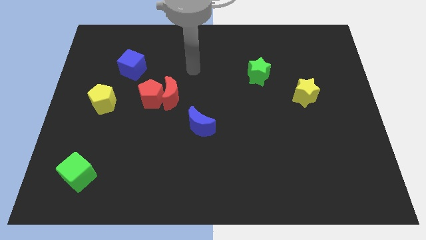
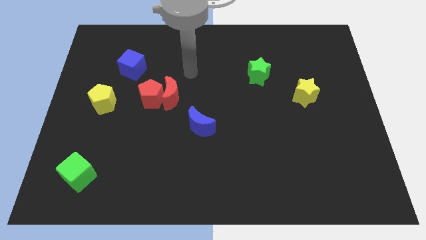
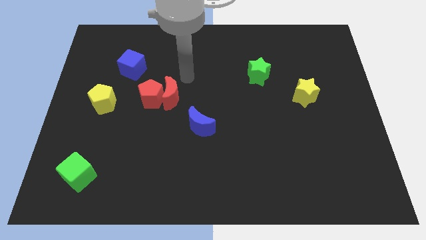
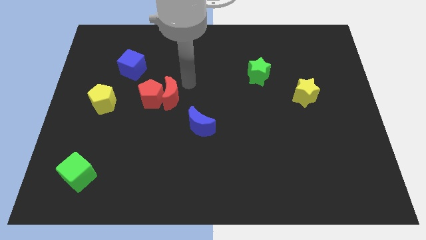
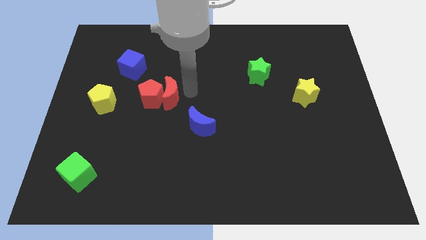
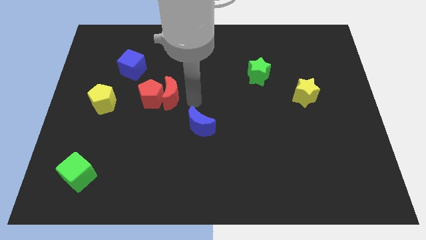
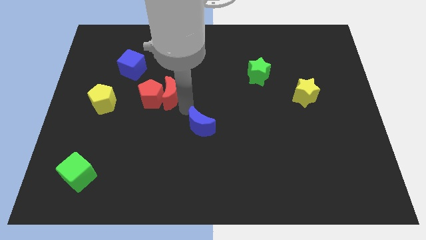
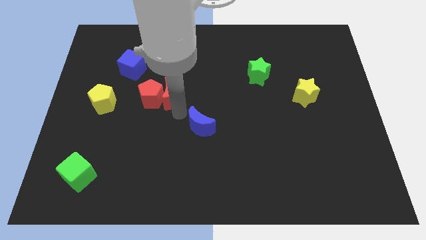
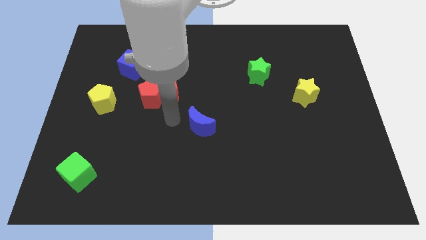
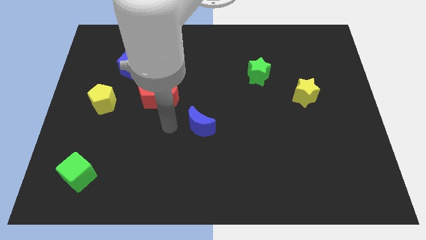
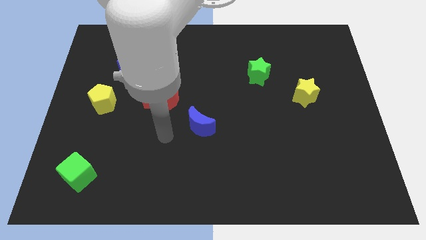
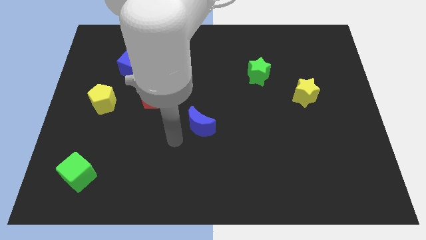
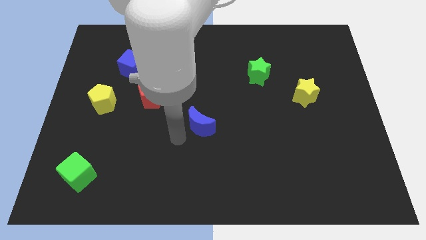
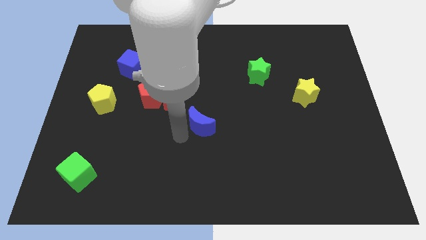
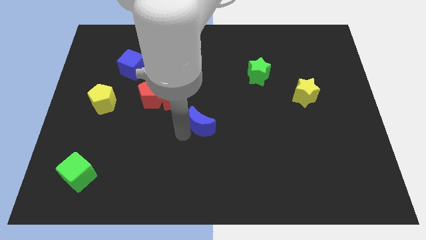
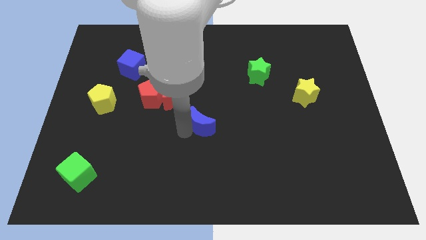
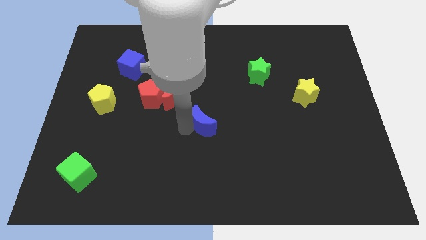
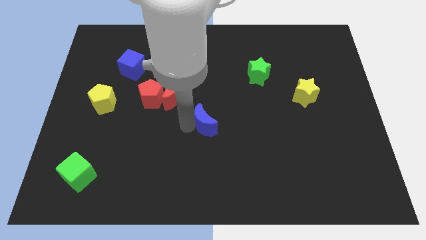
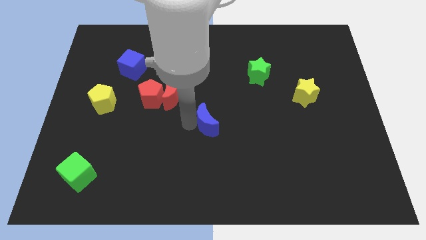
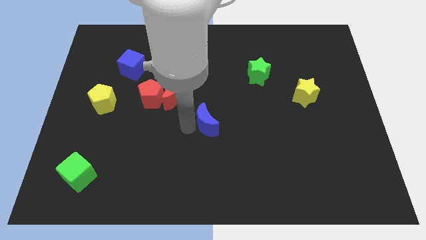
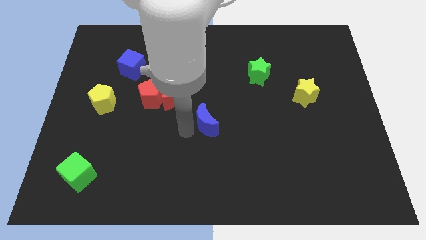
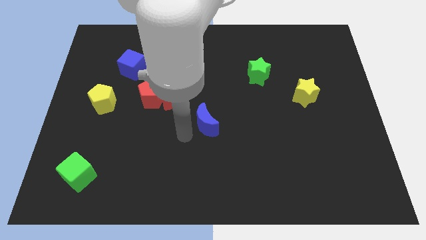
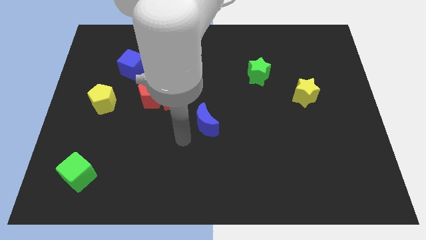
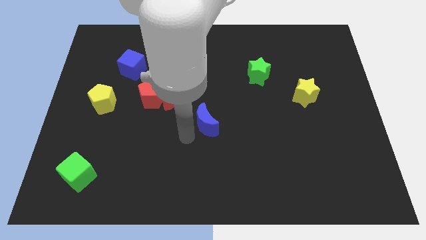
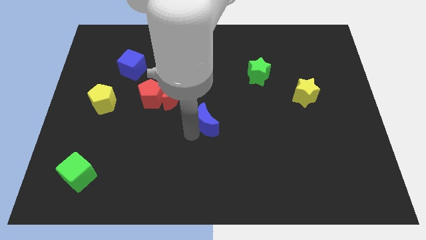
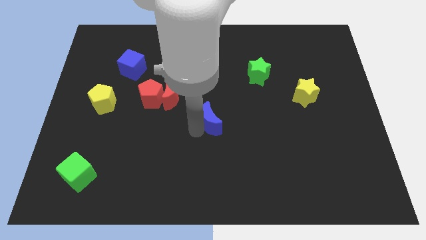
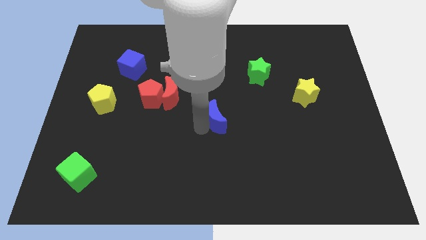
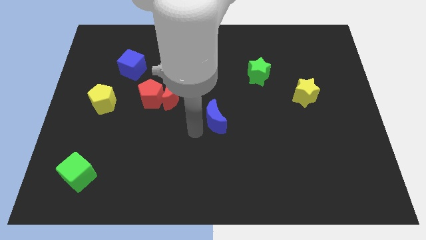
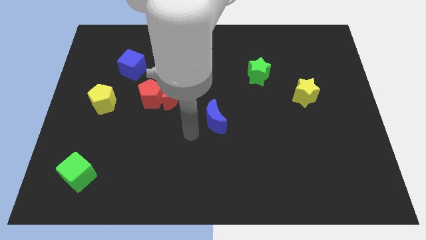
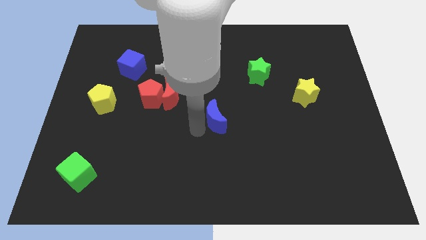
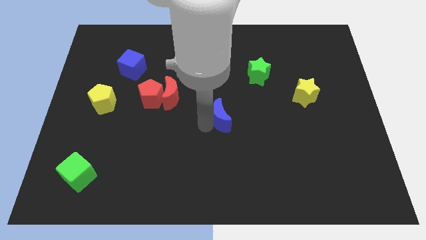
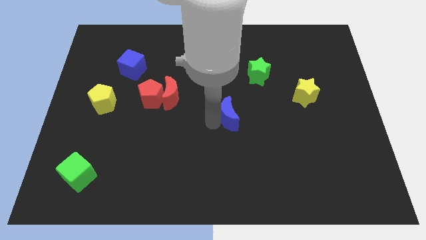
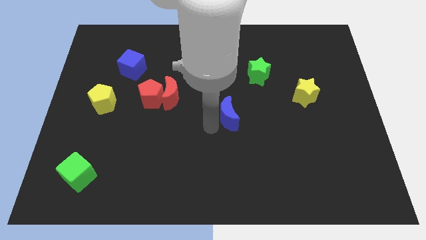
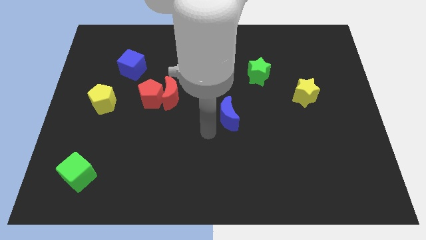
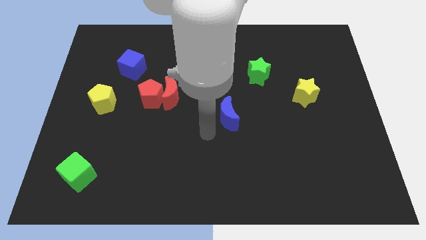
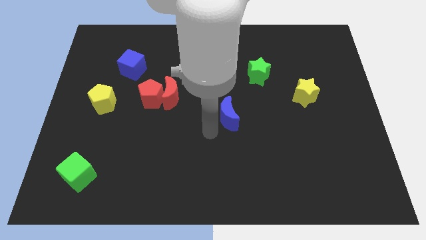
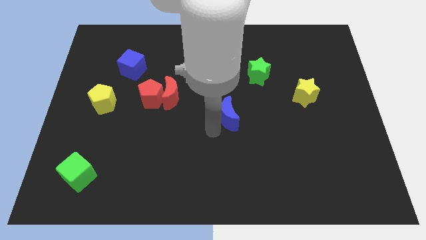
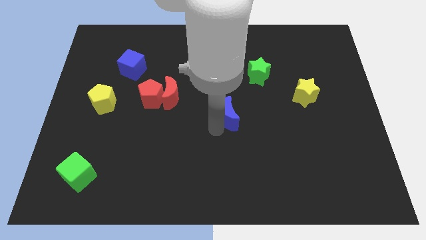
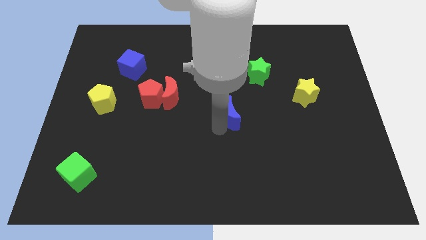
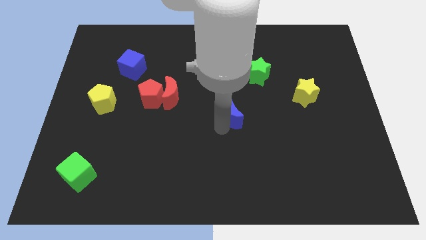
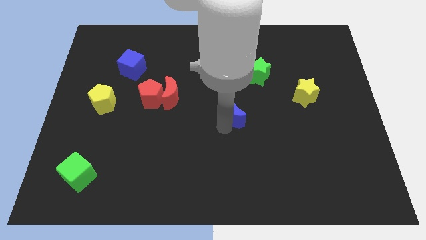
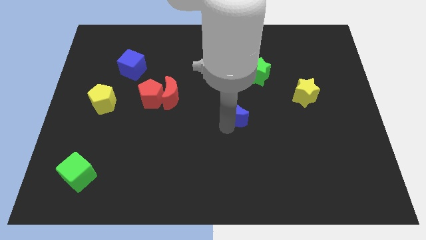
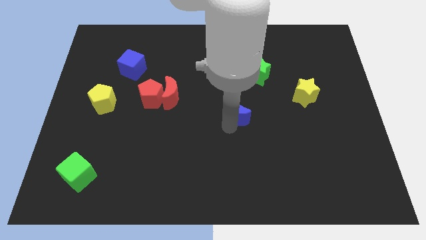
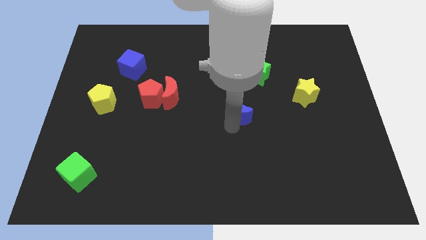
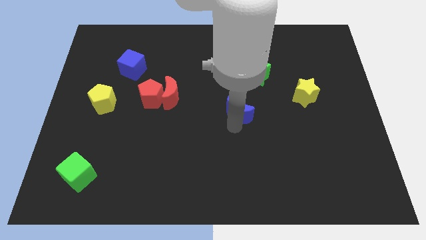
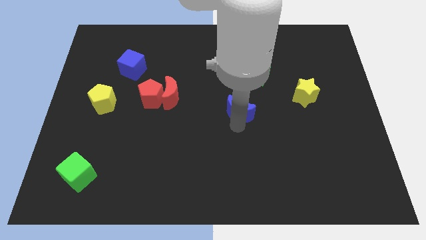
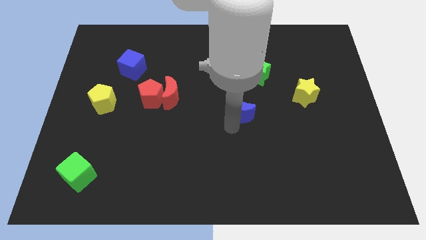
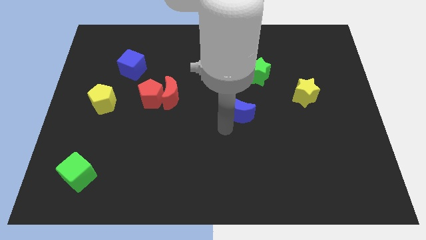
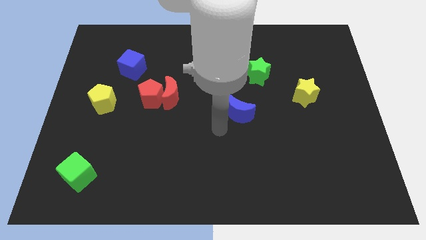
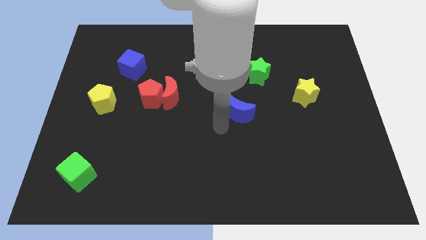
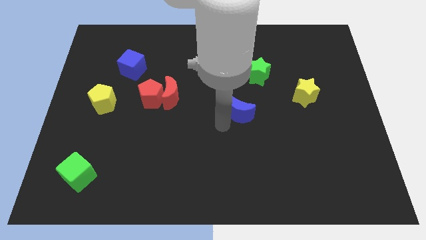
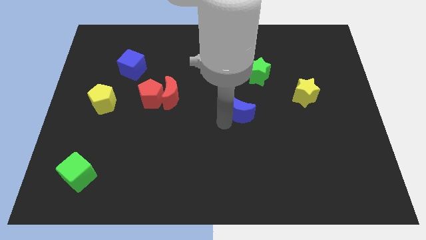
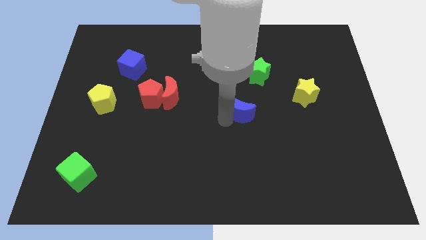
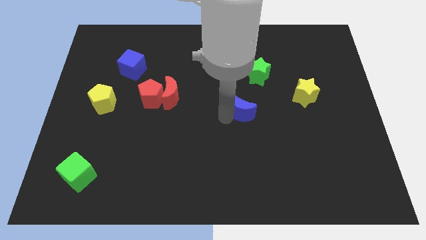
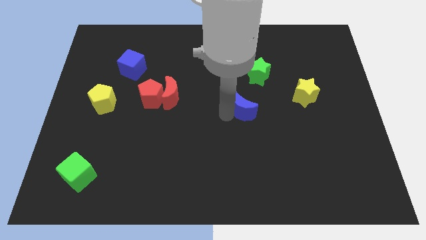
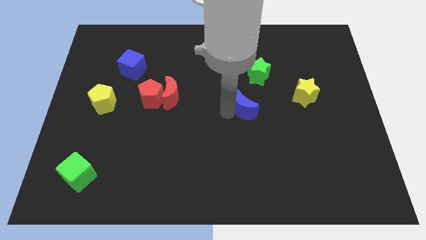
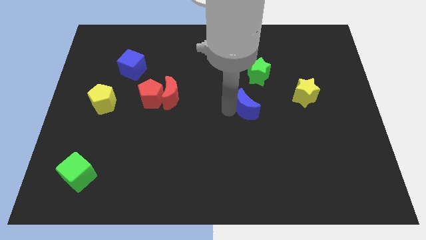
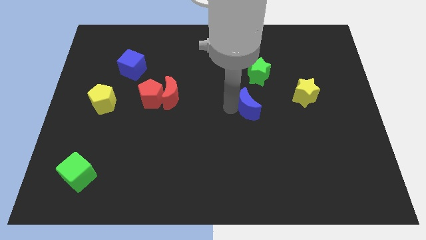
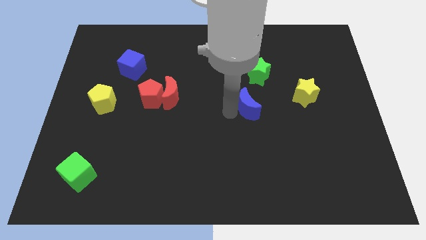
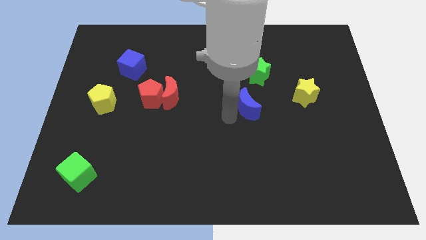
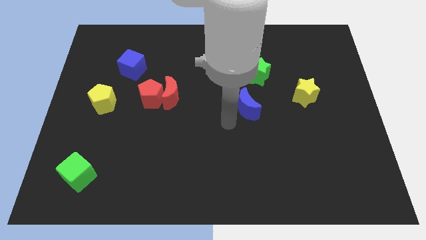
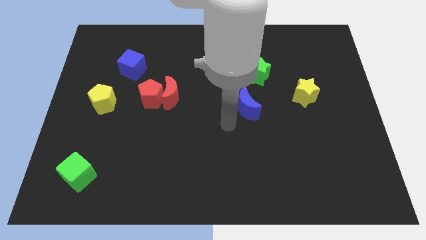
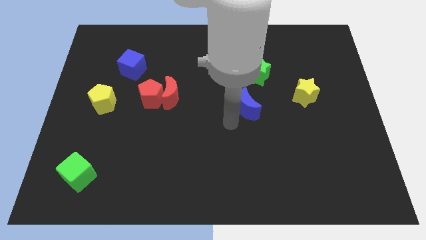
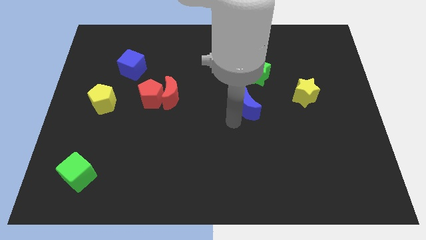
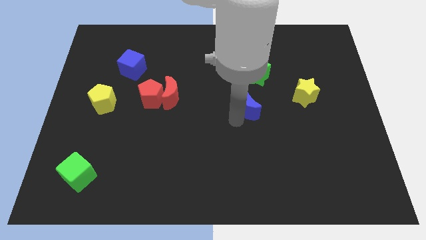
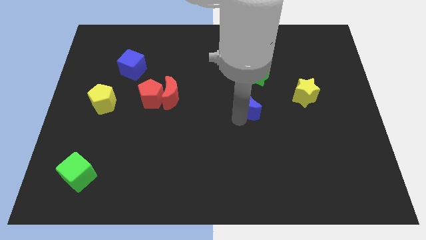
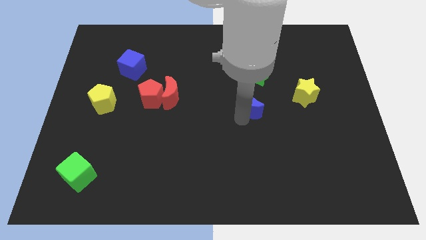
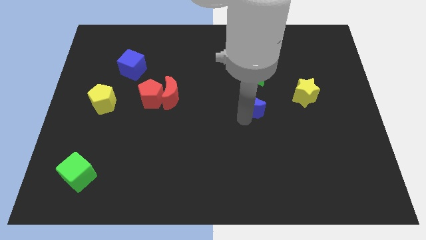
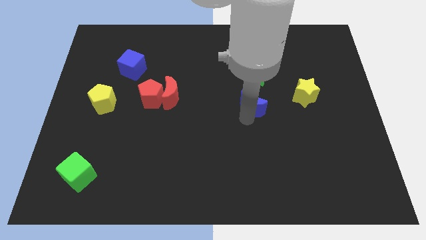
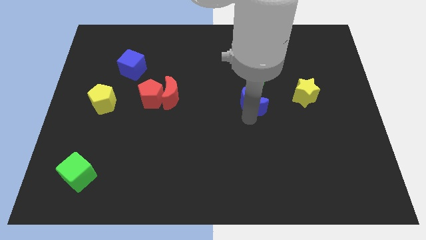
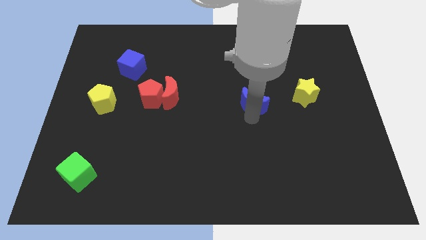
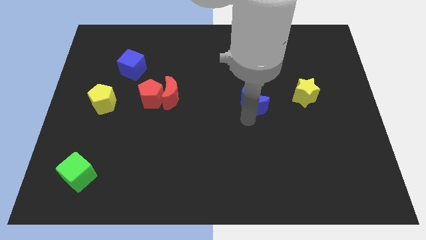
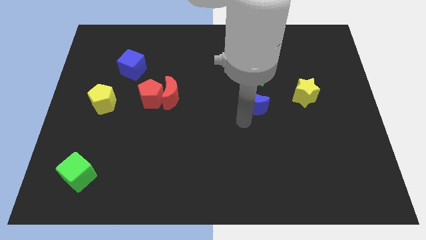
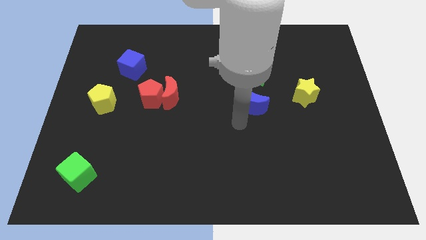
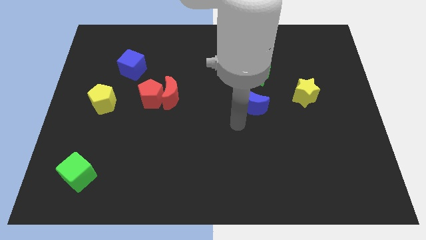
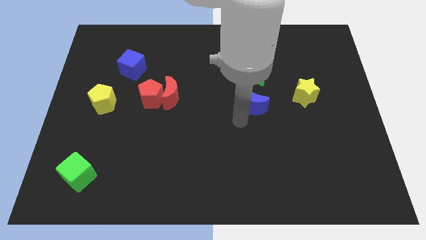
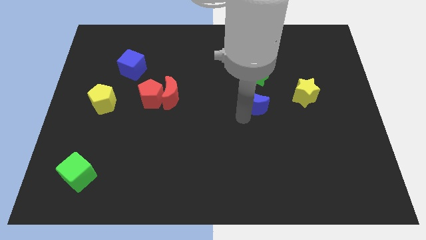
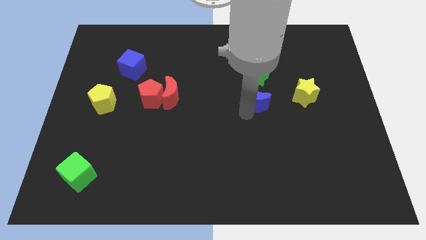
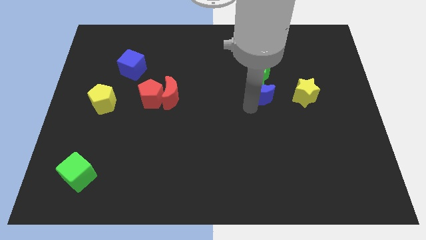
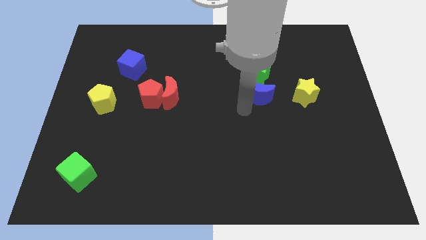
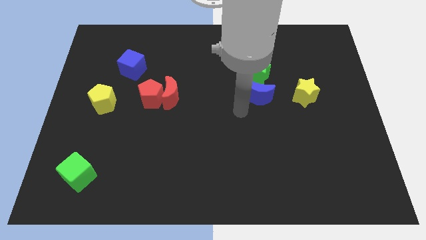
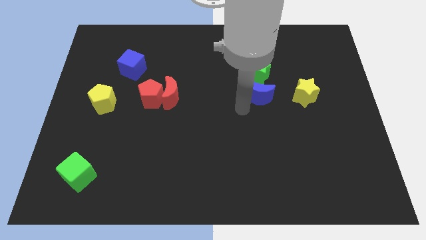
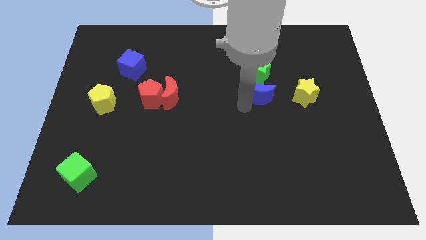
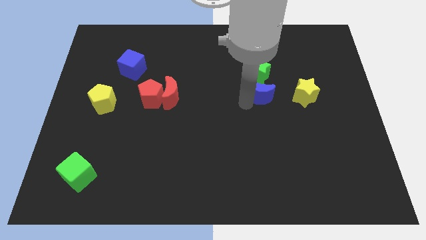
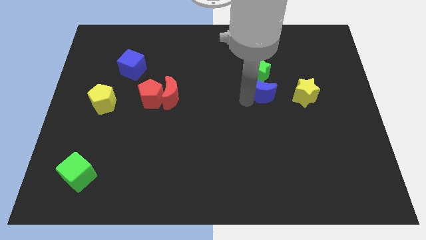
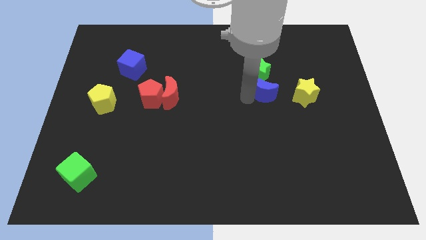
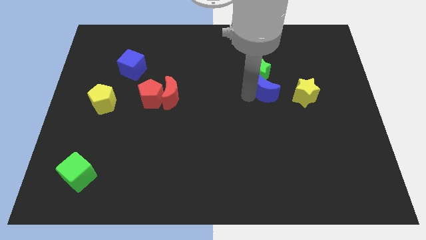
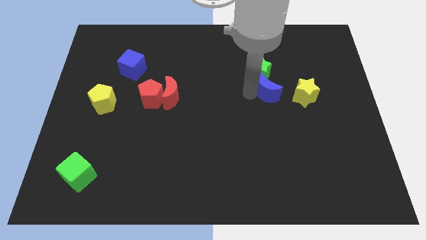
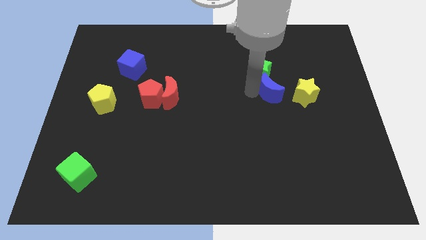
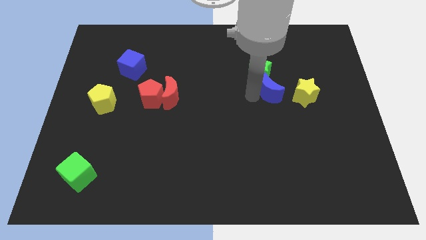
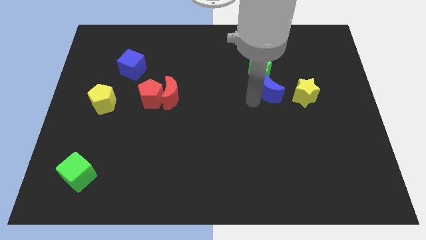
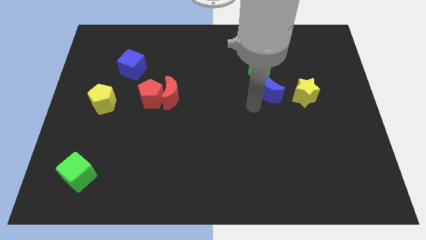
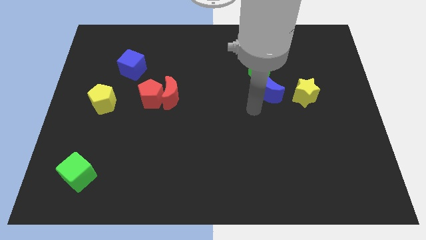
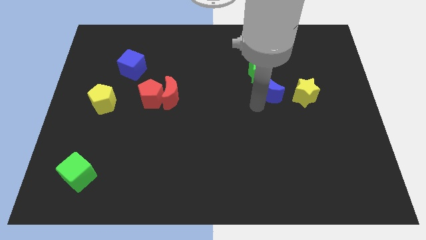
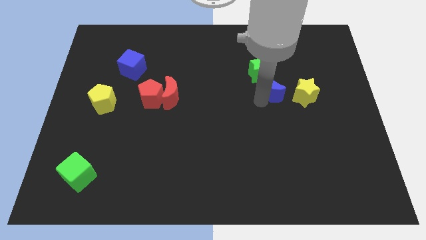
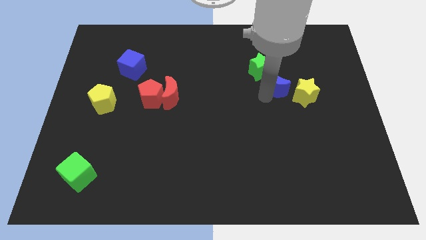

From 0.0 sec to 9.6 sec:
put the blue moon to the top left of the yellow star
